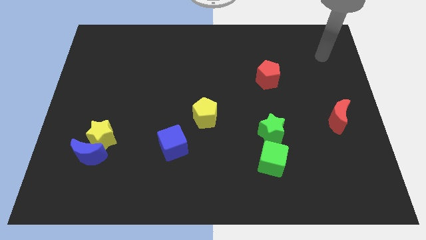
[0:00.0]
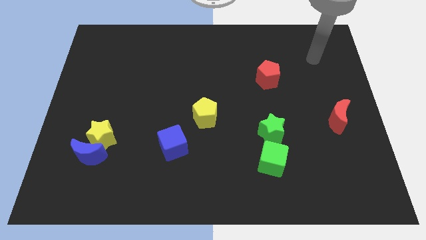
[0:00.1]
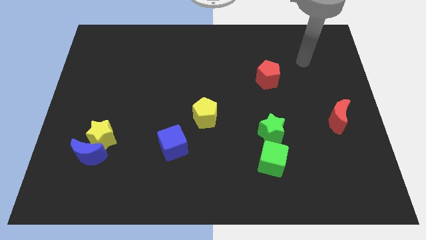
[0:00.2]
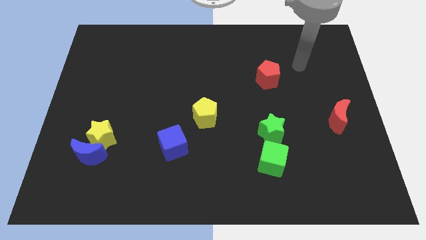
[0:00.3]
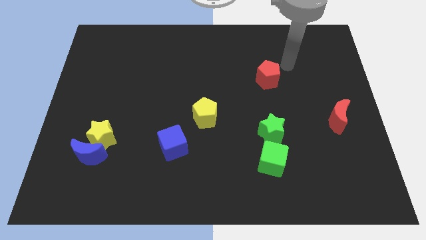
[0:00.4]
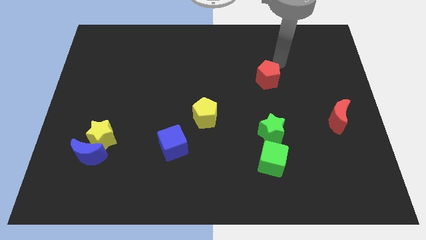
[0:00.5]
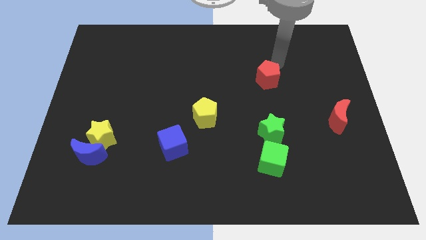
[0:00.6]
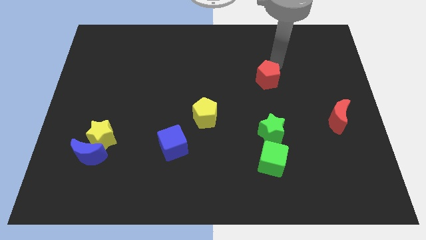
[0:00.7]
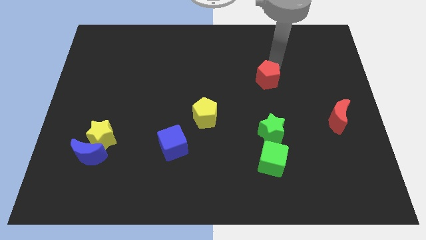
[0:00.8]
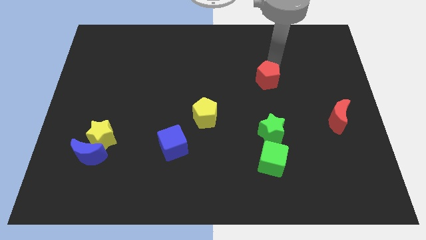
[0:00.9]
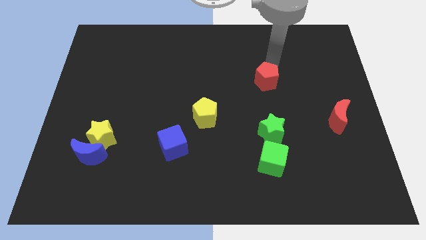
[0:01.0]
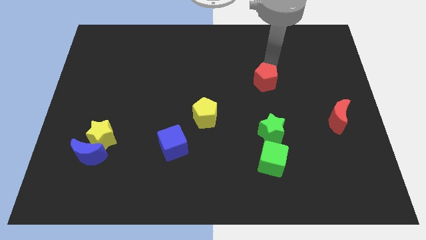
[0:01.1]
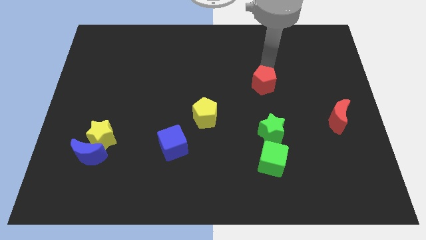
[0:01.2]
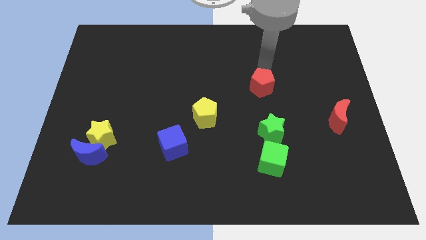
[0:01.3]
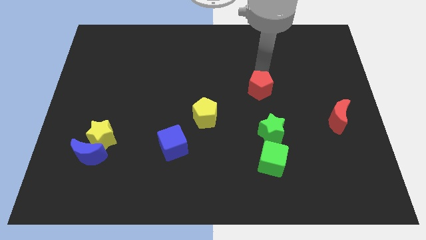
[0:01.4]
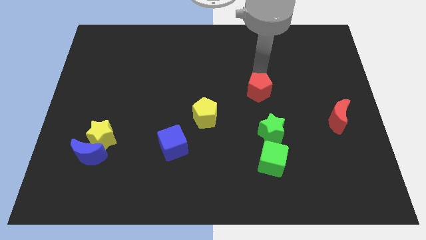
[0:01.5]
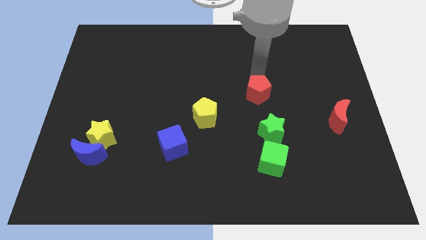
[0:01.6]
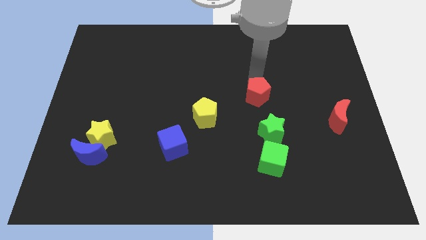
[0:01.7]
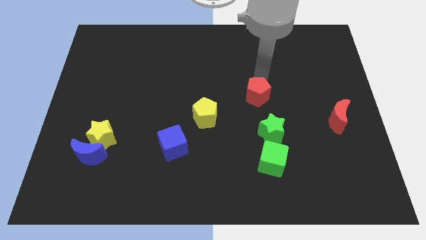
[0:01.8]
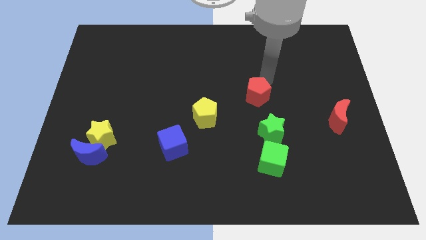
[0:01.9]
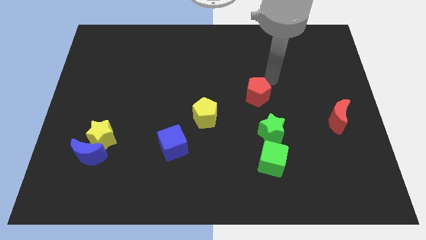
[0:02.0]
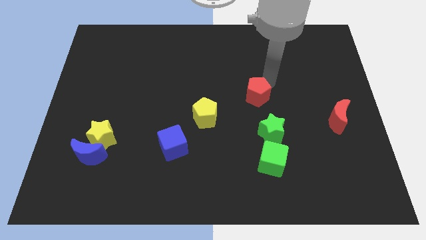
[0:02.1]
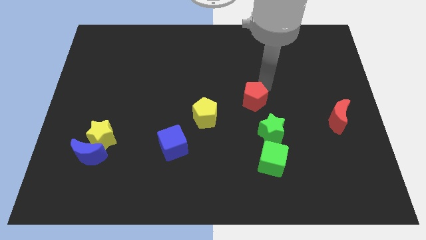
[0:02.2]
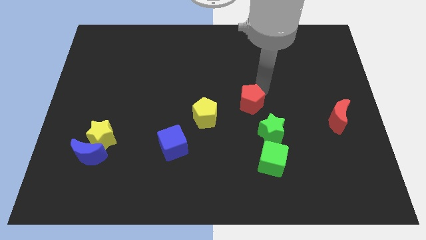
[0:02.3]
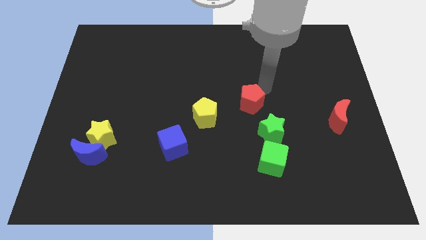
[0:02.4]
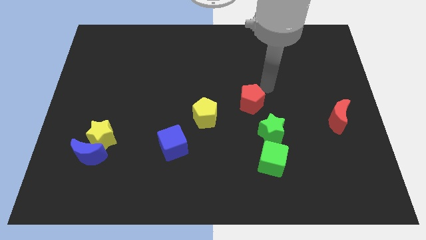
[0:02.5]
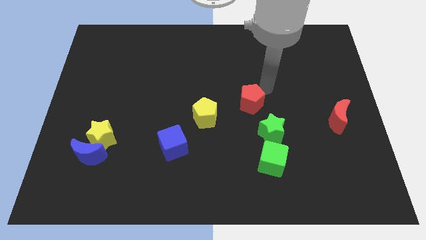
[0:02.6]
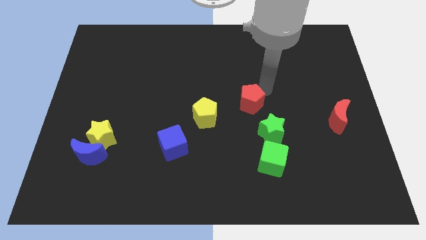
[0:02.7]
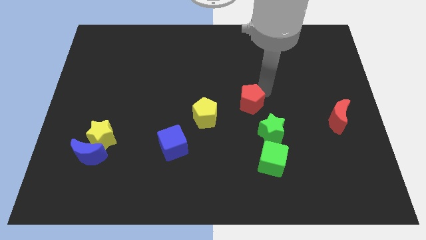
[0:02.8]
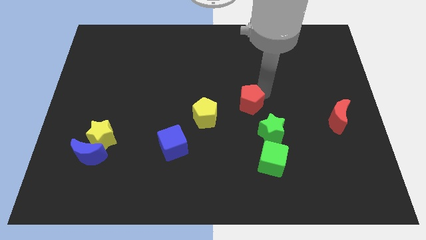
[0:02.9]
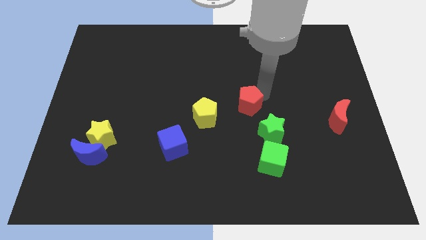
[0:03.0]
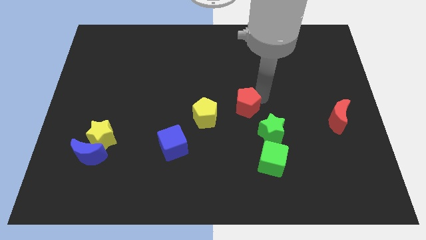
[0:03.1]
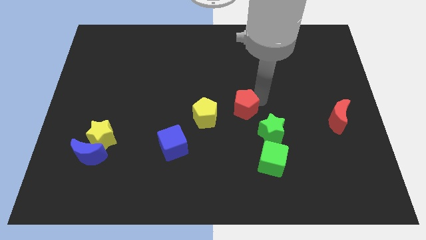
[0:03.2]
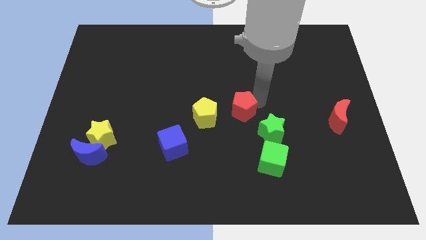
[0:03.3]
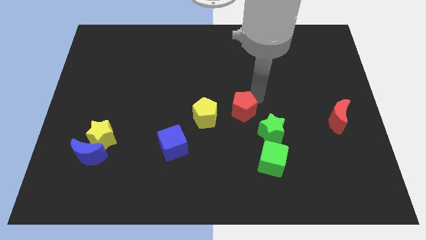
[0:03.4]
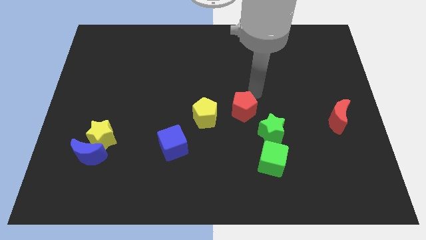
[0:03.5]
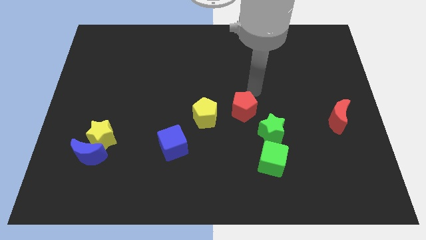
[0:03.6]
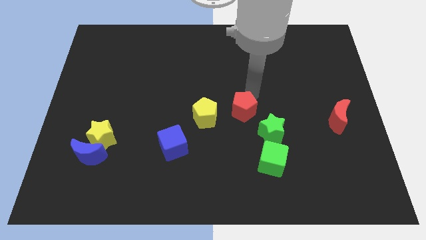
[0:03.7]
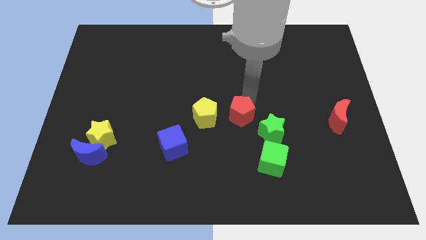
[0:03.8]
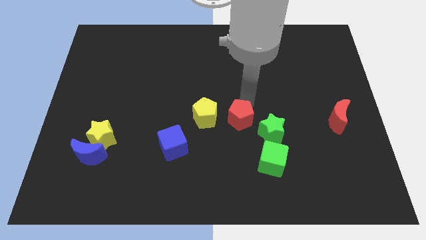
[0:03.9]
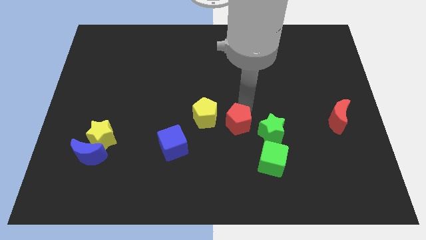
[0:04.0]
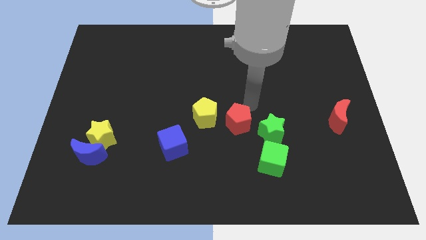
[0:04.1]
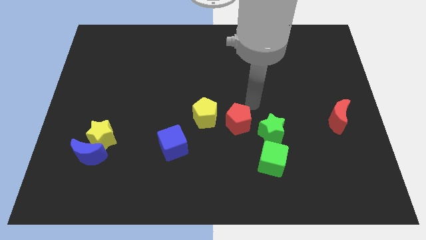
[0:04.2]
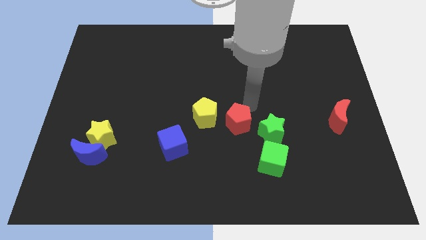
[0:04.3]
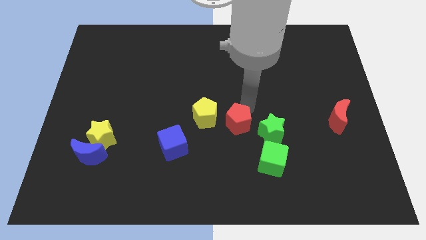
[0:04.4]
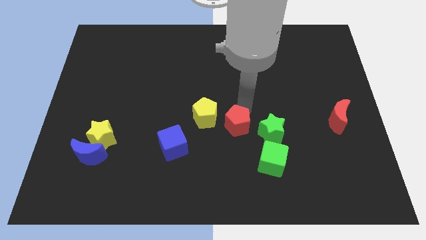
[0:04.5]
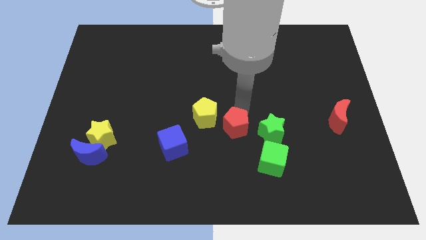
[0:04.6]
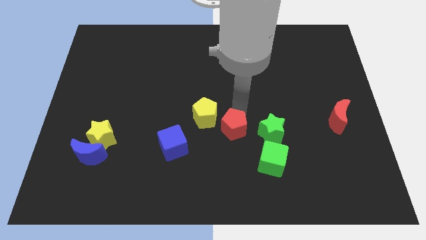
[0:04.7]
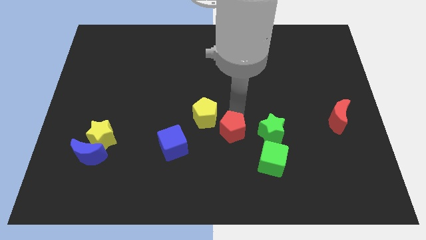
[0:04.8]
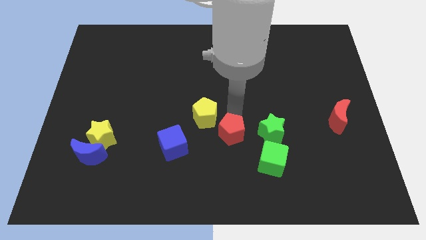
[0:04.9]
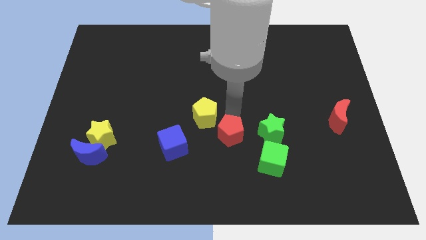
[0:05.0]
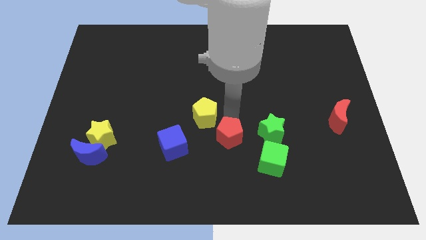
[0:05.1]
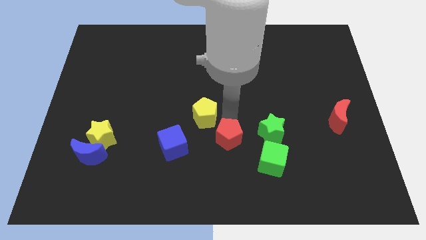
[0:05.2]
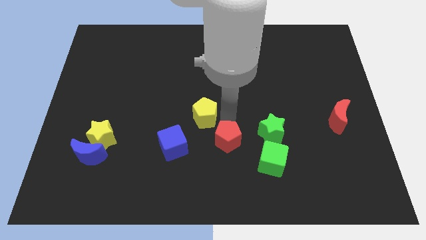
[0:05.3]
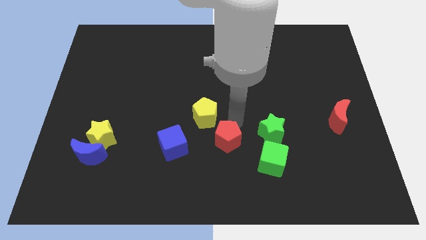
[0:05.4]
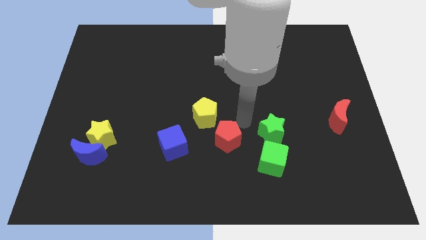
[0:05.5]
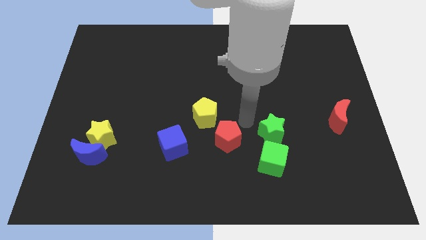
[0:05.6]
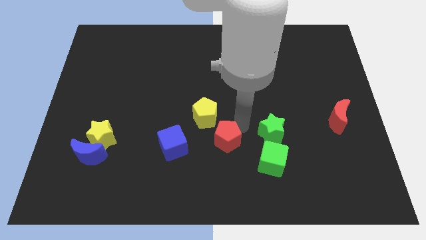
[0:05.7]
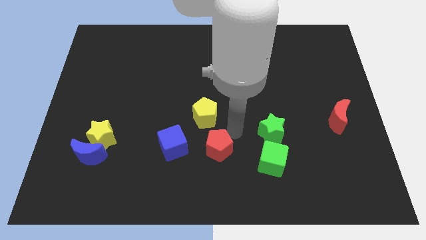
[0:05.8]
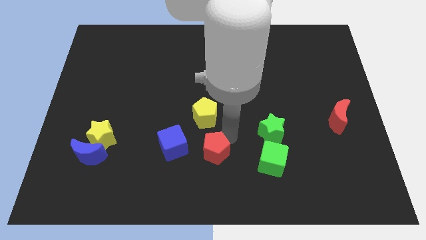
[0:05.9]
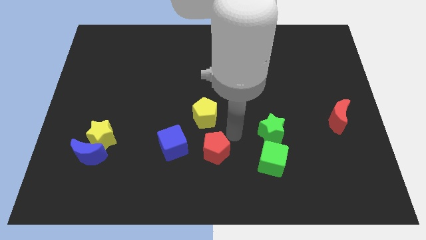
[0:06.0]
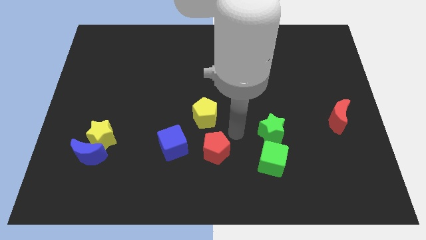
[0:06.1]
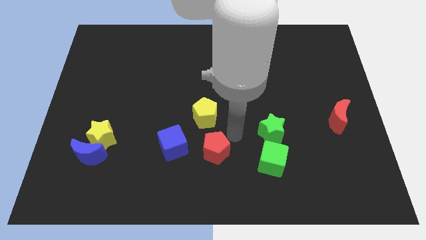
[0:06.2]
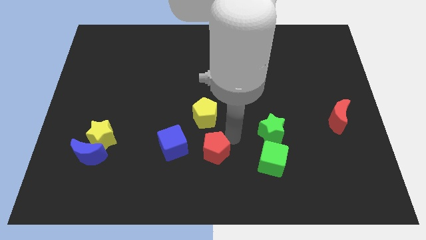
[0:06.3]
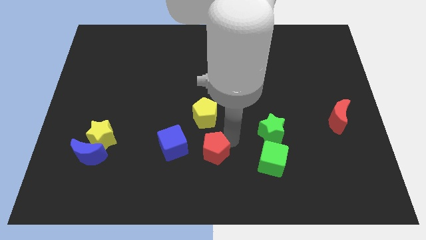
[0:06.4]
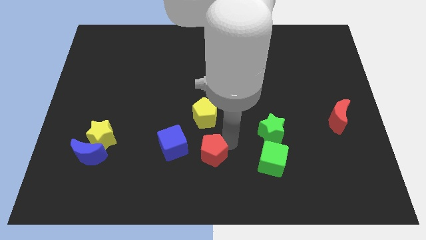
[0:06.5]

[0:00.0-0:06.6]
push the red pentagon diagonally down and to the right of the blue cube

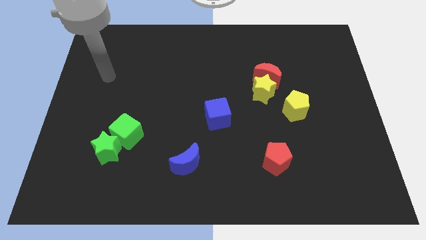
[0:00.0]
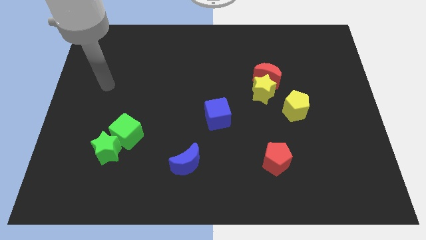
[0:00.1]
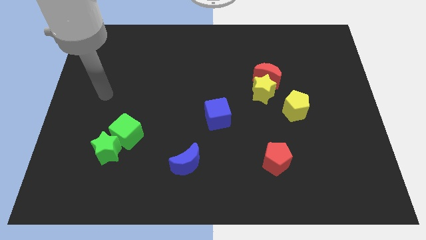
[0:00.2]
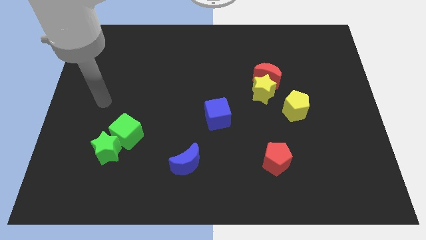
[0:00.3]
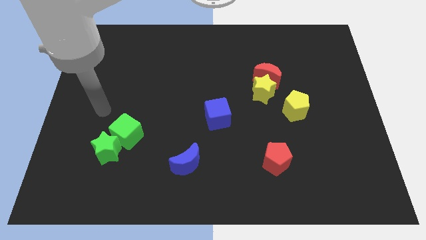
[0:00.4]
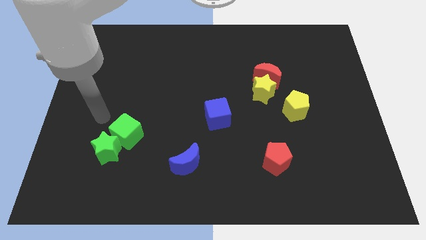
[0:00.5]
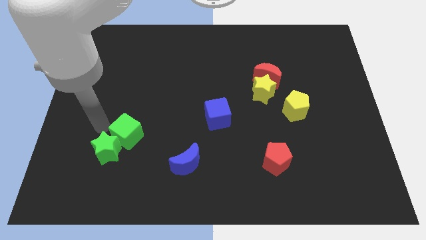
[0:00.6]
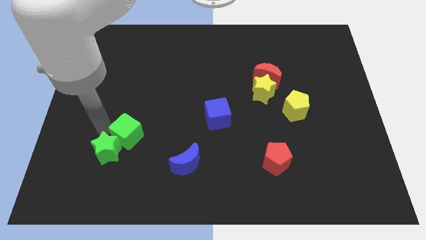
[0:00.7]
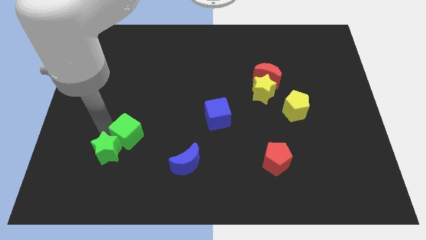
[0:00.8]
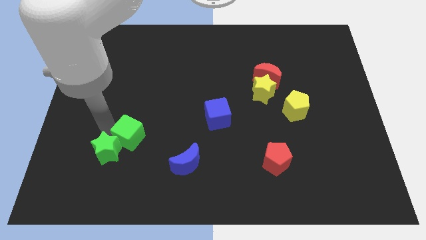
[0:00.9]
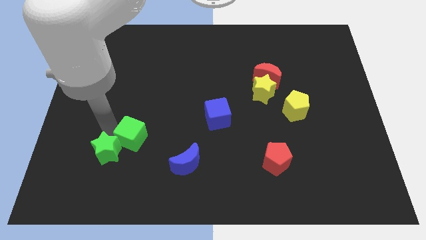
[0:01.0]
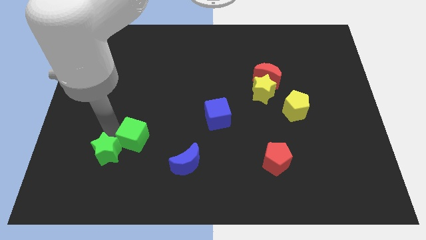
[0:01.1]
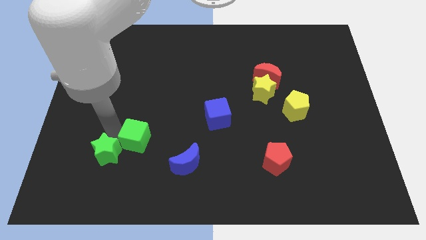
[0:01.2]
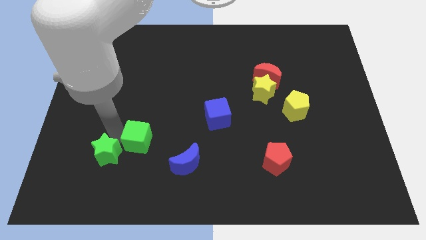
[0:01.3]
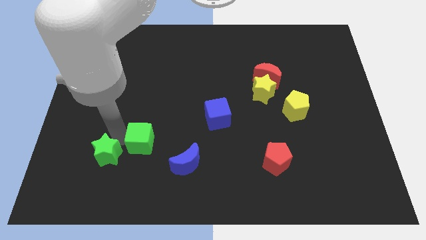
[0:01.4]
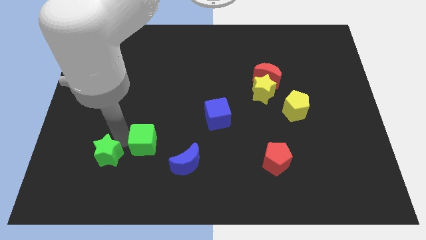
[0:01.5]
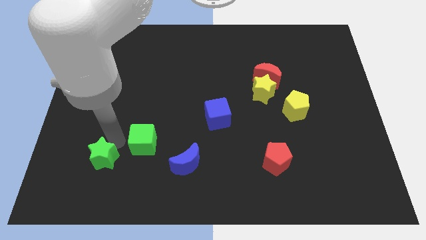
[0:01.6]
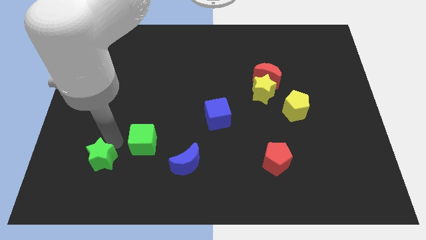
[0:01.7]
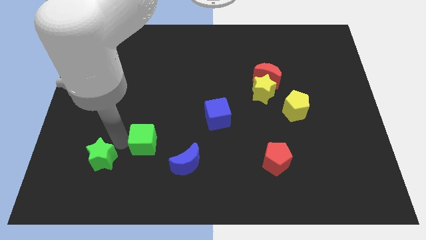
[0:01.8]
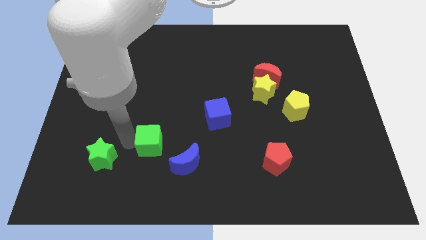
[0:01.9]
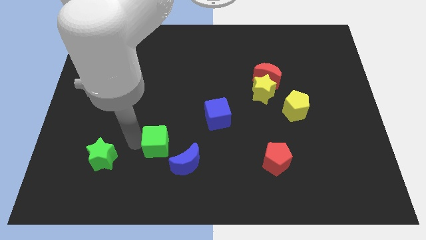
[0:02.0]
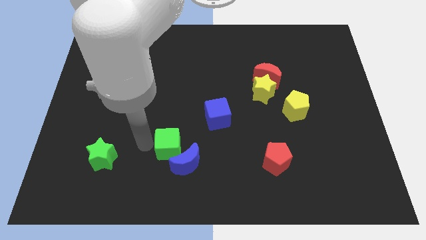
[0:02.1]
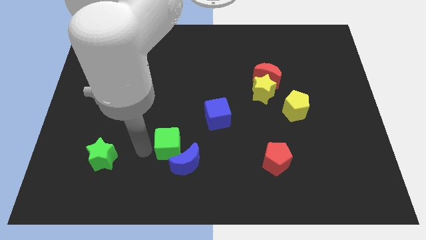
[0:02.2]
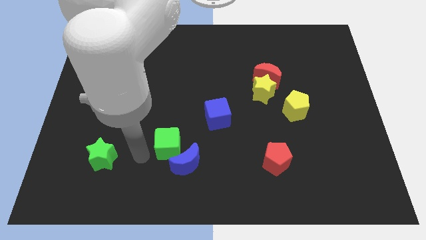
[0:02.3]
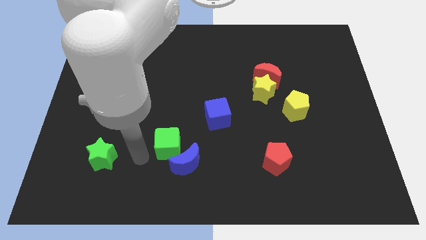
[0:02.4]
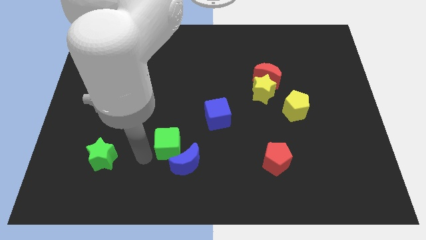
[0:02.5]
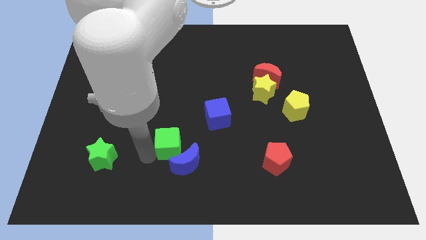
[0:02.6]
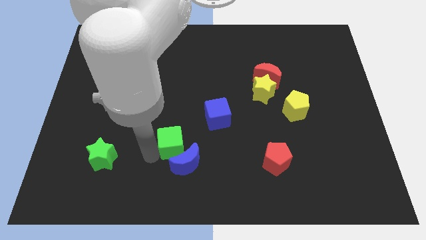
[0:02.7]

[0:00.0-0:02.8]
put the green cube to the bottom left of the blue cube
